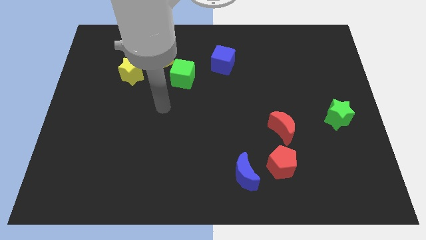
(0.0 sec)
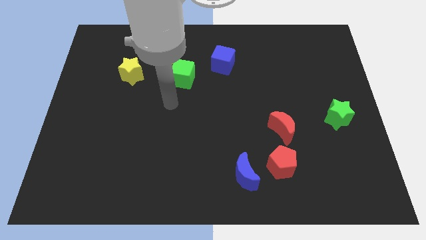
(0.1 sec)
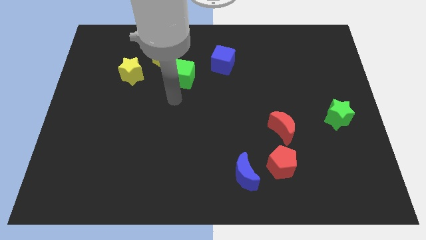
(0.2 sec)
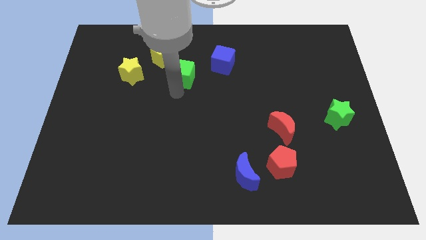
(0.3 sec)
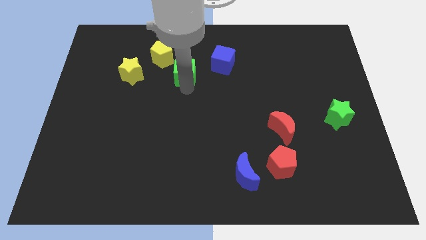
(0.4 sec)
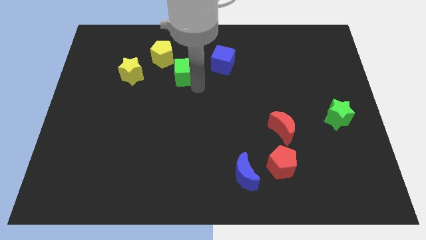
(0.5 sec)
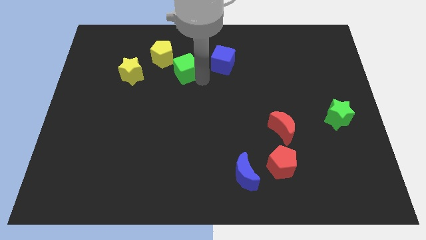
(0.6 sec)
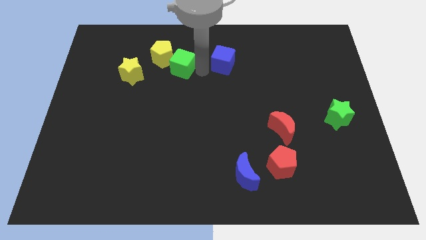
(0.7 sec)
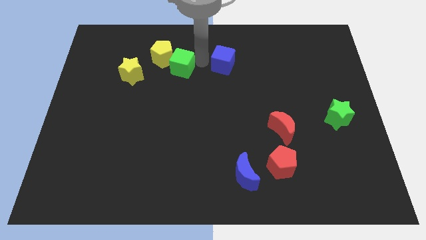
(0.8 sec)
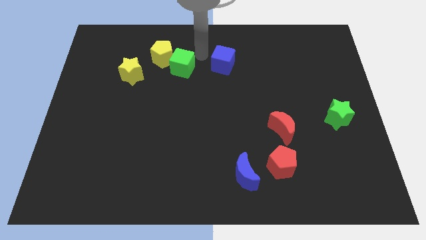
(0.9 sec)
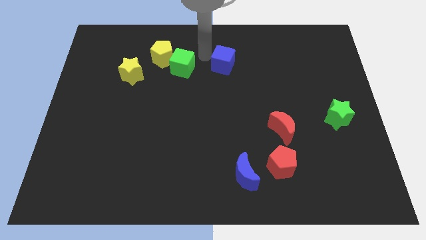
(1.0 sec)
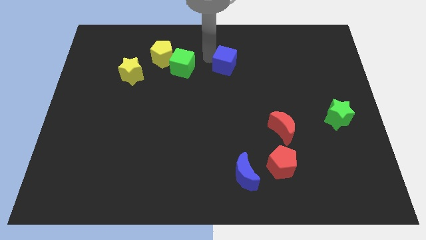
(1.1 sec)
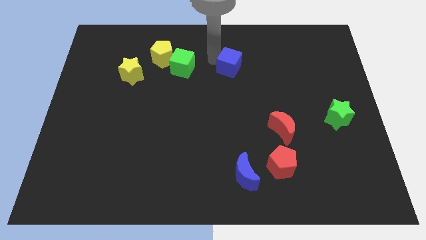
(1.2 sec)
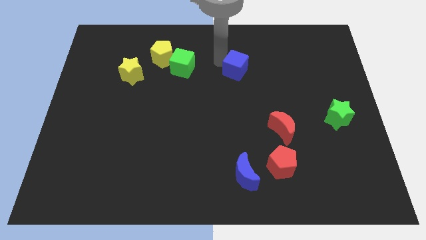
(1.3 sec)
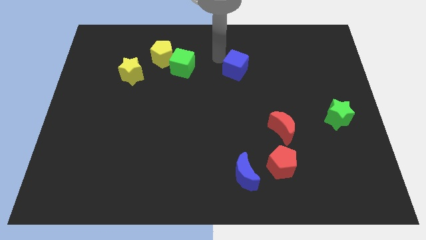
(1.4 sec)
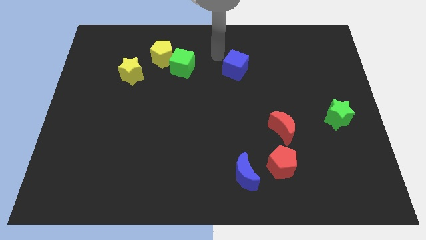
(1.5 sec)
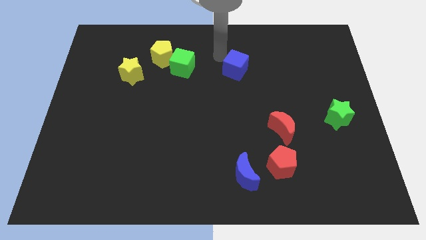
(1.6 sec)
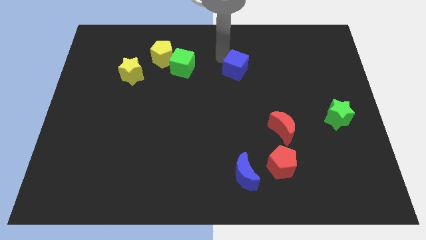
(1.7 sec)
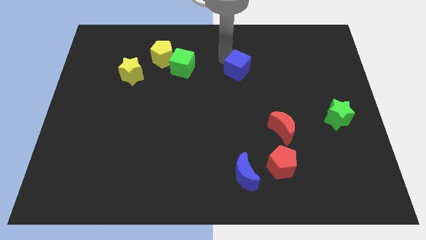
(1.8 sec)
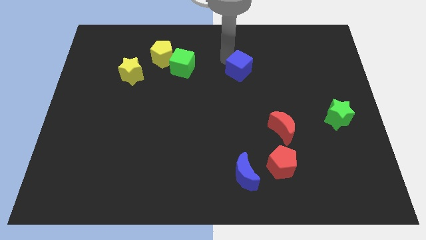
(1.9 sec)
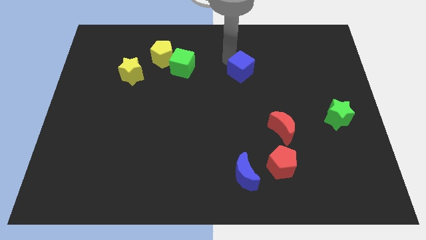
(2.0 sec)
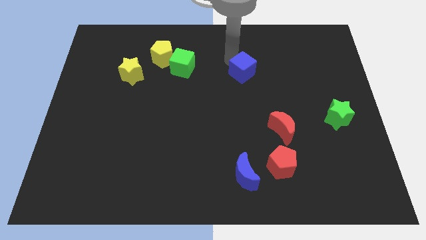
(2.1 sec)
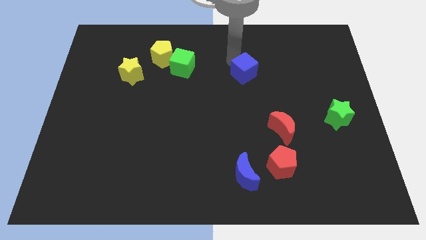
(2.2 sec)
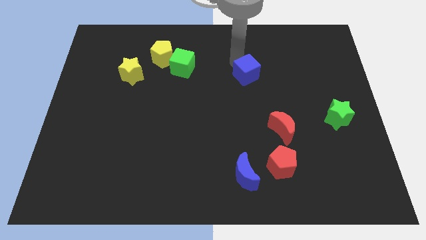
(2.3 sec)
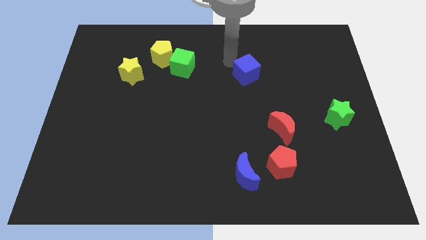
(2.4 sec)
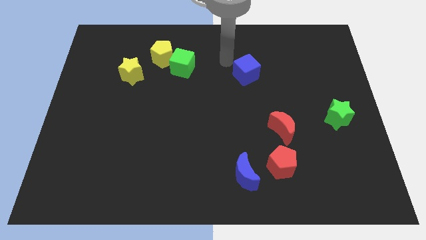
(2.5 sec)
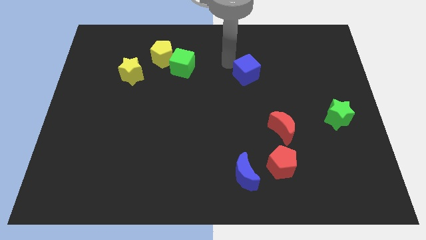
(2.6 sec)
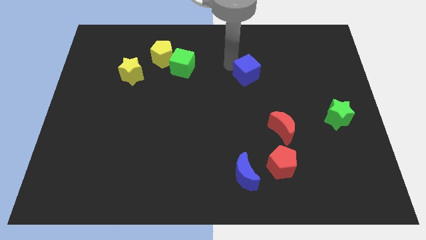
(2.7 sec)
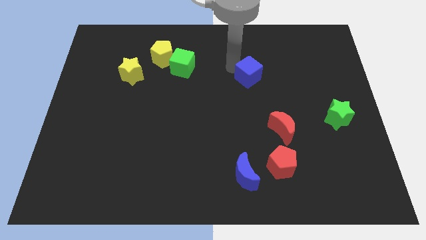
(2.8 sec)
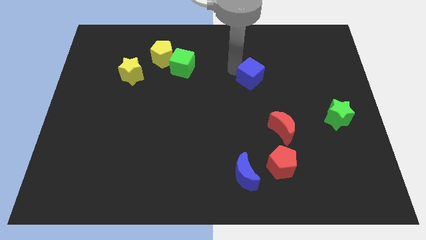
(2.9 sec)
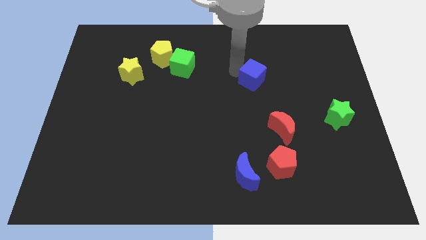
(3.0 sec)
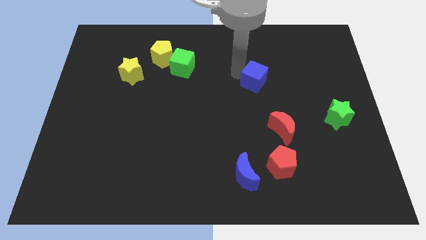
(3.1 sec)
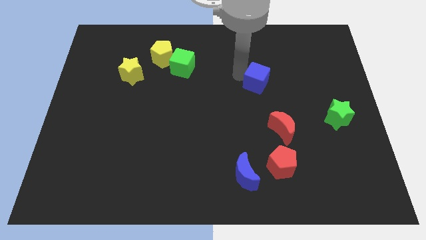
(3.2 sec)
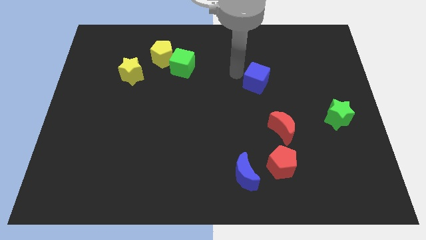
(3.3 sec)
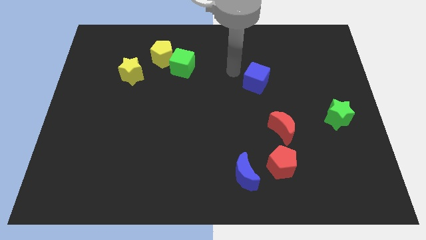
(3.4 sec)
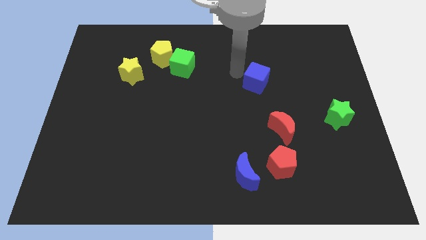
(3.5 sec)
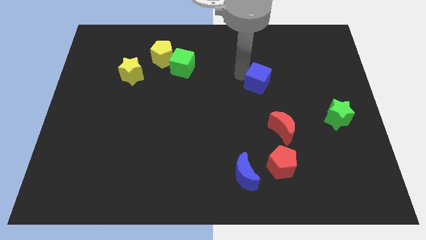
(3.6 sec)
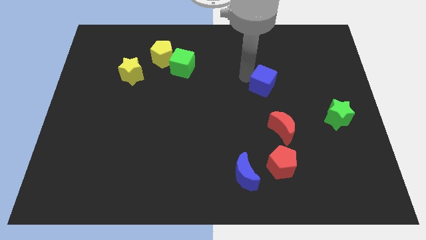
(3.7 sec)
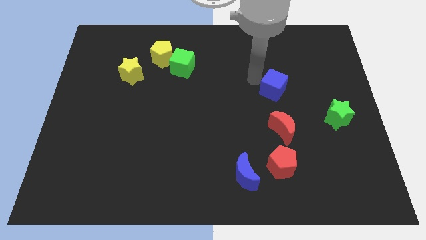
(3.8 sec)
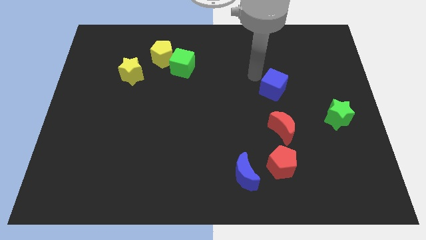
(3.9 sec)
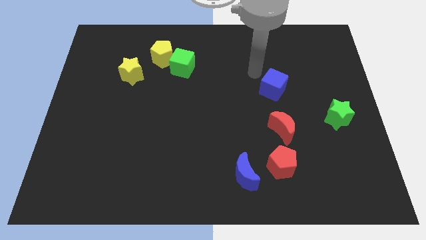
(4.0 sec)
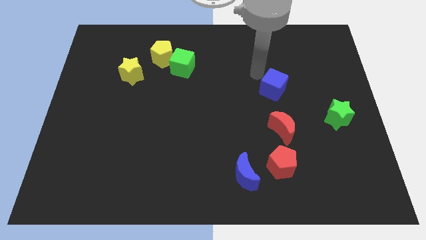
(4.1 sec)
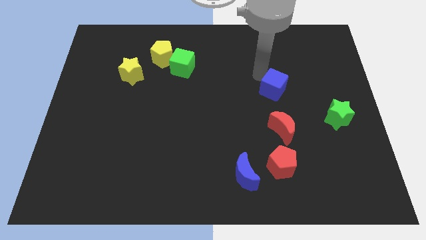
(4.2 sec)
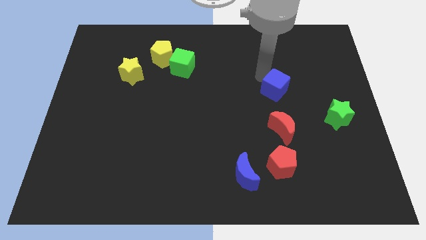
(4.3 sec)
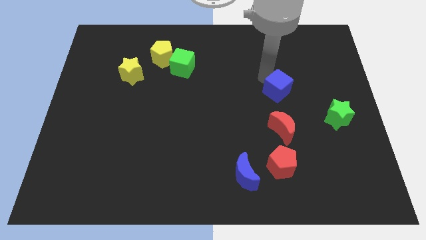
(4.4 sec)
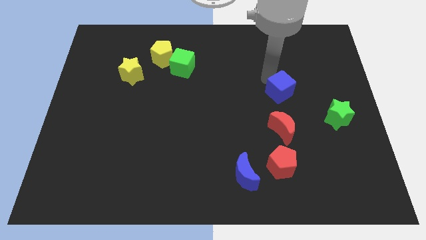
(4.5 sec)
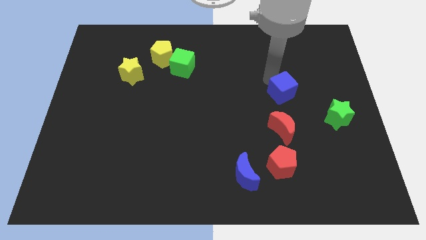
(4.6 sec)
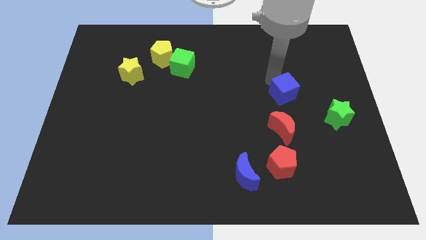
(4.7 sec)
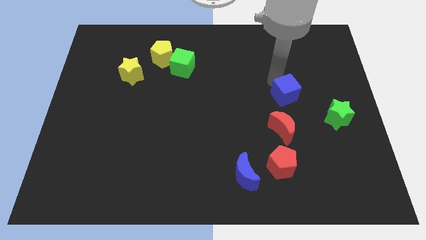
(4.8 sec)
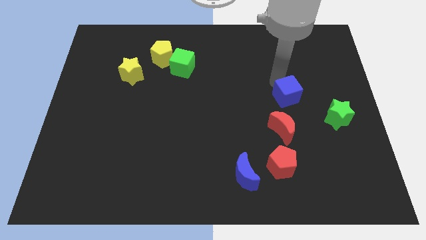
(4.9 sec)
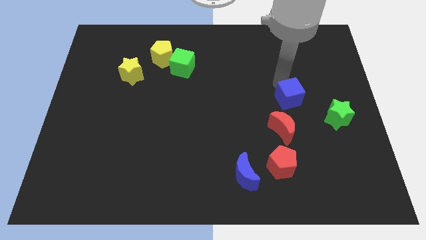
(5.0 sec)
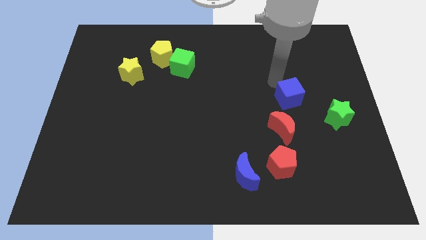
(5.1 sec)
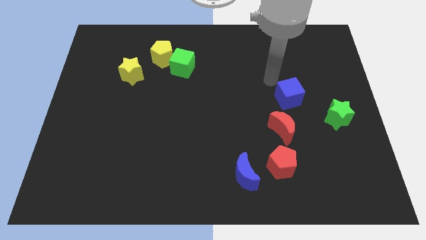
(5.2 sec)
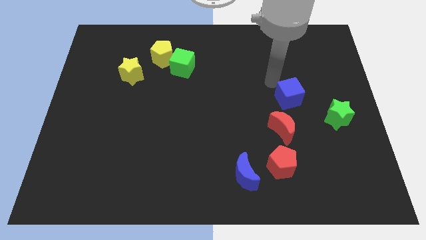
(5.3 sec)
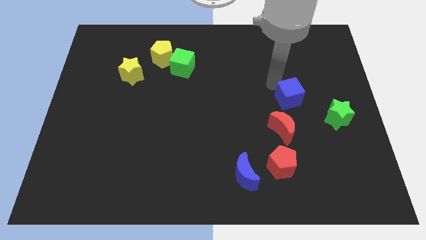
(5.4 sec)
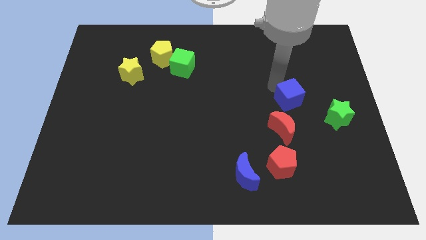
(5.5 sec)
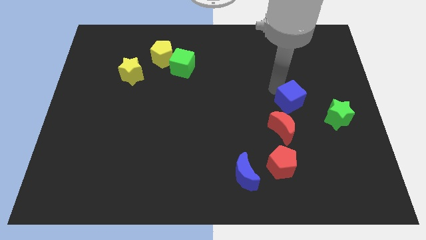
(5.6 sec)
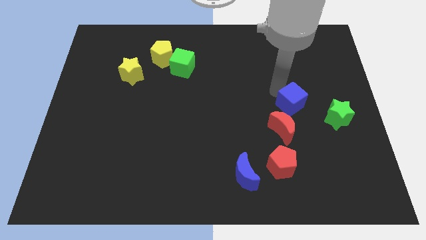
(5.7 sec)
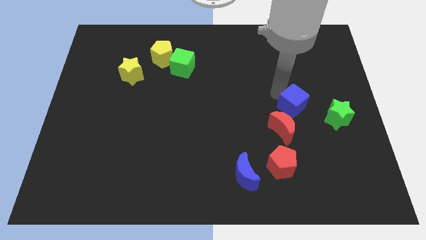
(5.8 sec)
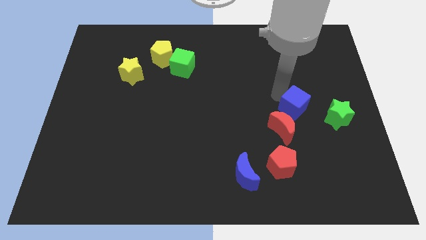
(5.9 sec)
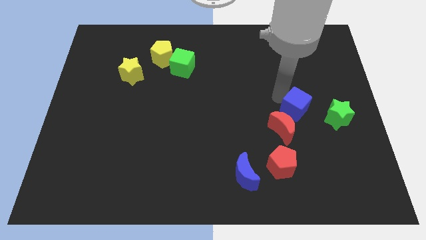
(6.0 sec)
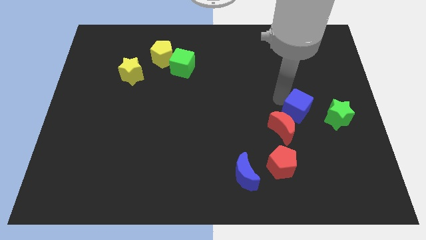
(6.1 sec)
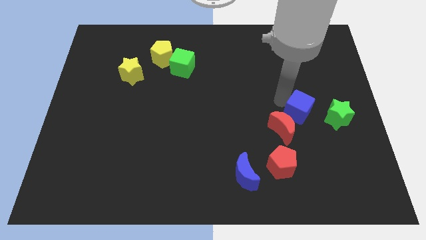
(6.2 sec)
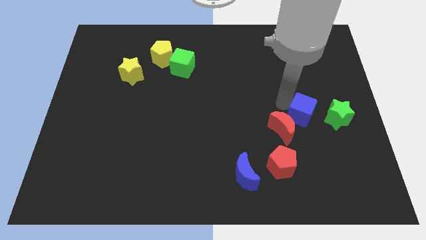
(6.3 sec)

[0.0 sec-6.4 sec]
push the blue cube to the right of the red moon

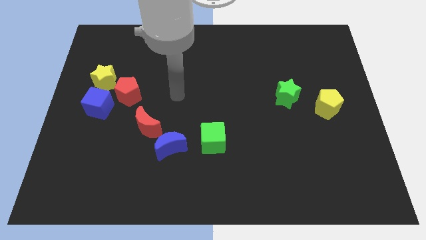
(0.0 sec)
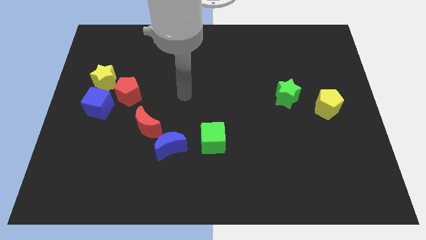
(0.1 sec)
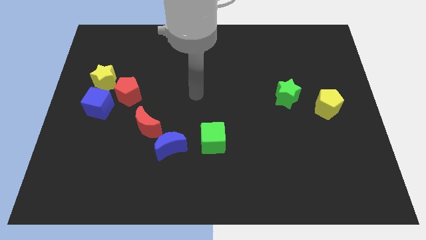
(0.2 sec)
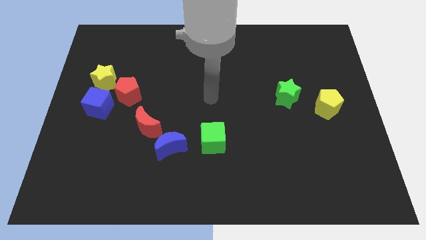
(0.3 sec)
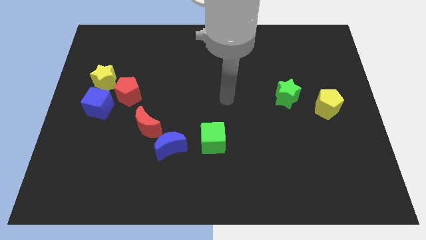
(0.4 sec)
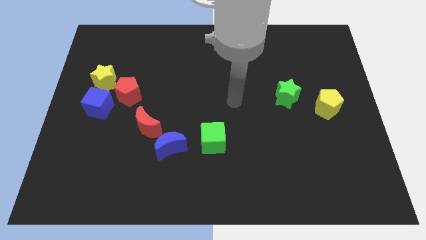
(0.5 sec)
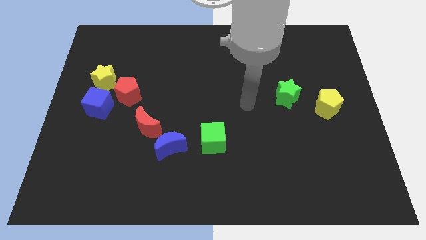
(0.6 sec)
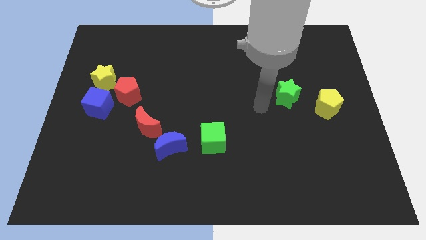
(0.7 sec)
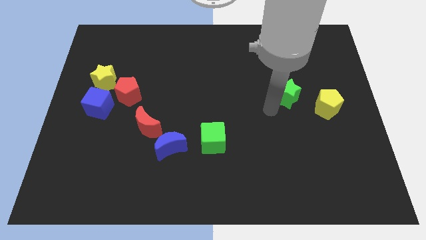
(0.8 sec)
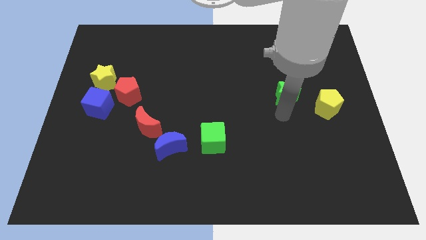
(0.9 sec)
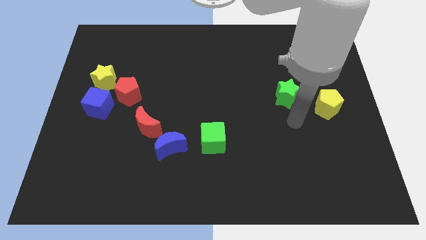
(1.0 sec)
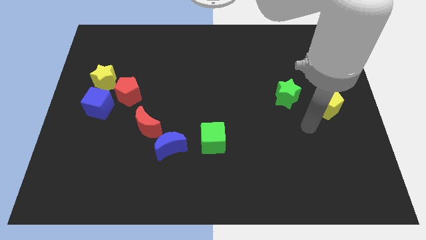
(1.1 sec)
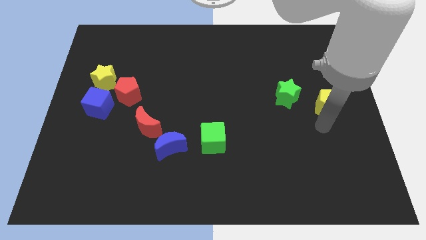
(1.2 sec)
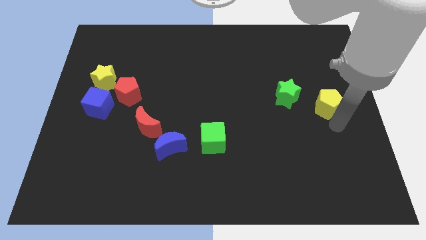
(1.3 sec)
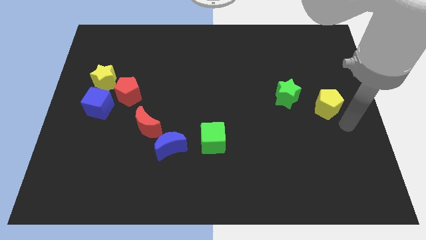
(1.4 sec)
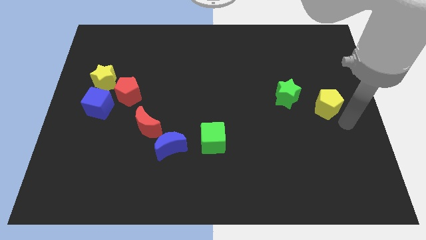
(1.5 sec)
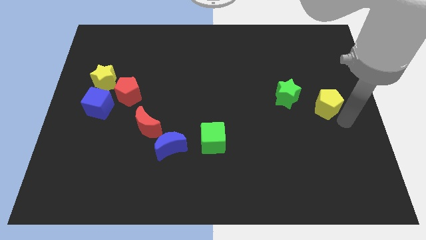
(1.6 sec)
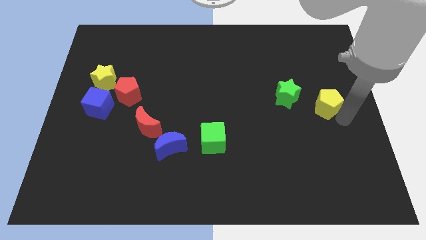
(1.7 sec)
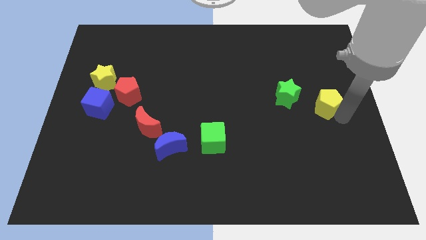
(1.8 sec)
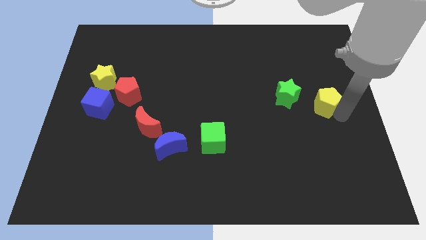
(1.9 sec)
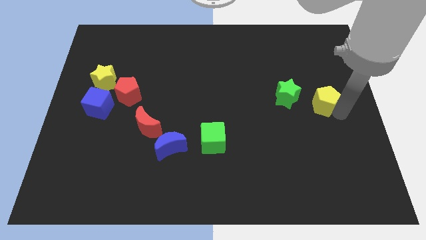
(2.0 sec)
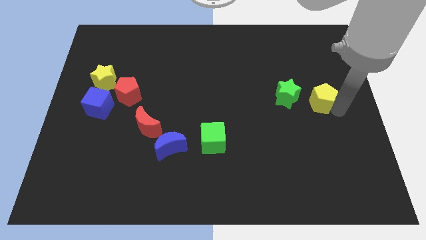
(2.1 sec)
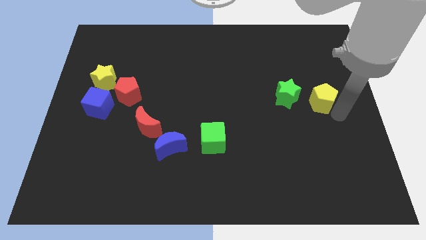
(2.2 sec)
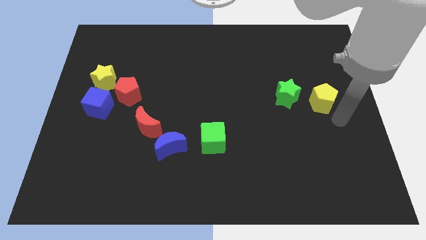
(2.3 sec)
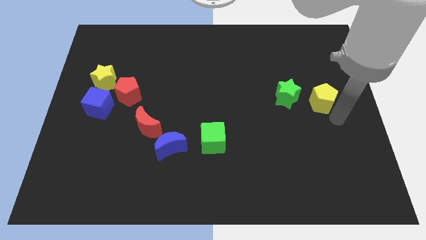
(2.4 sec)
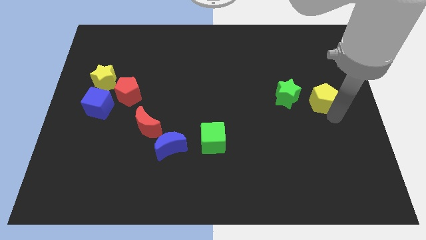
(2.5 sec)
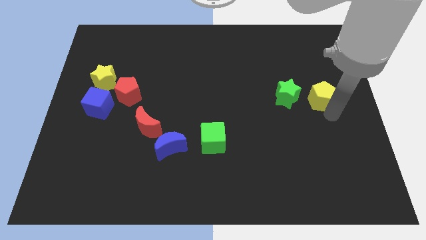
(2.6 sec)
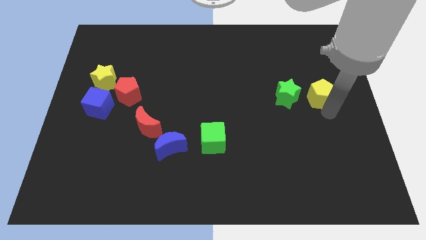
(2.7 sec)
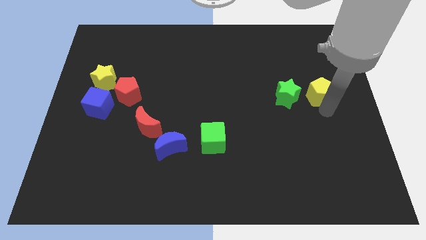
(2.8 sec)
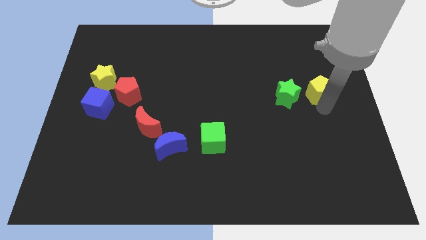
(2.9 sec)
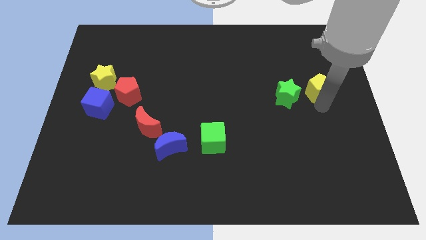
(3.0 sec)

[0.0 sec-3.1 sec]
move the yellow pentagon diagonally up and to the right of the green star
